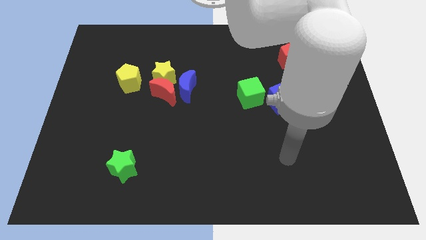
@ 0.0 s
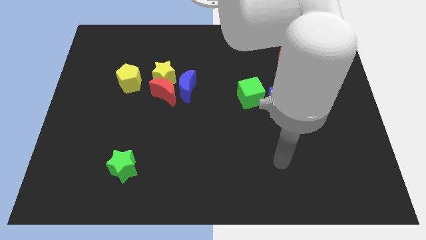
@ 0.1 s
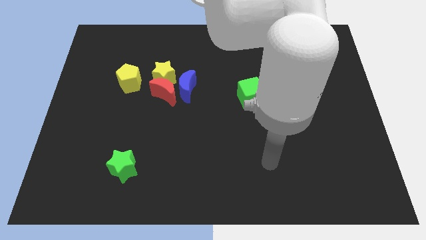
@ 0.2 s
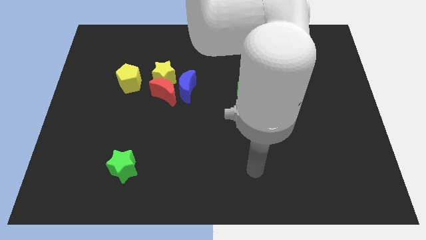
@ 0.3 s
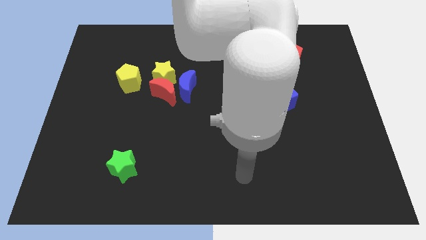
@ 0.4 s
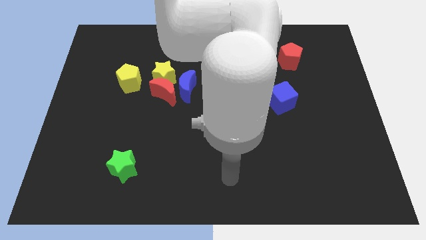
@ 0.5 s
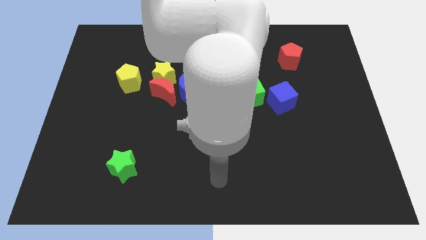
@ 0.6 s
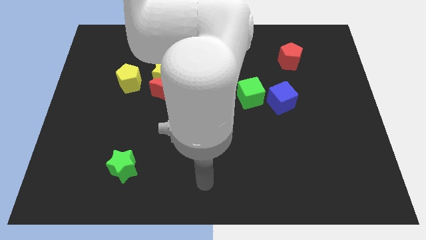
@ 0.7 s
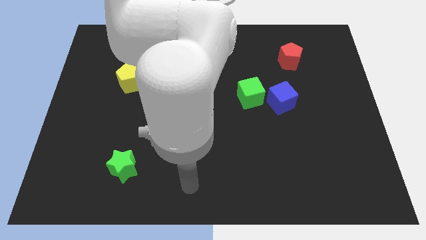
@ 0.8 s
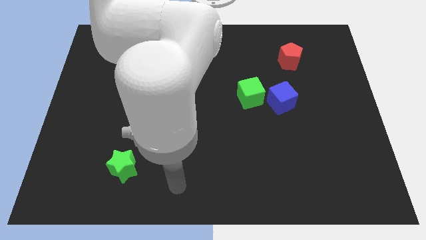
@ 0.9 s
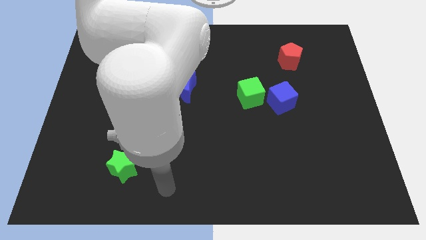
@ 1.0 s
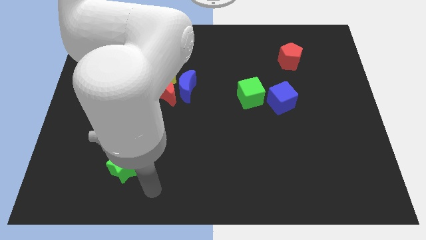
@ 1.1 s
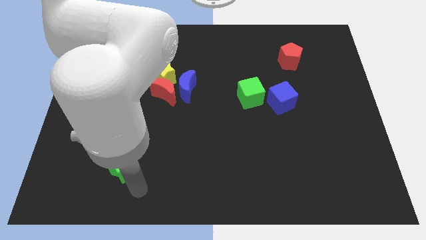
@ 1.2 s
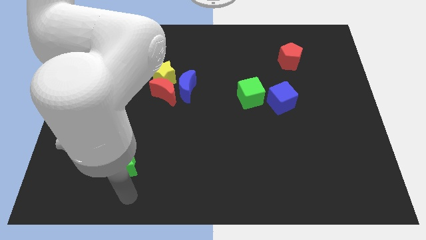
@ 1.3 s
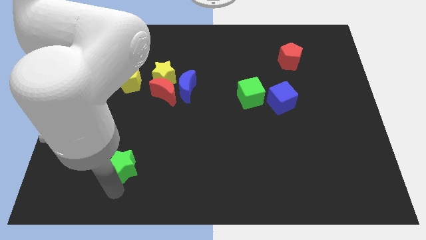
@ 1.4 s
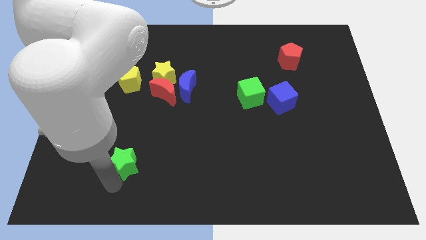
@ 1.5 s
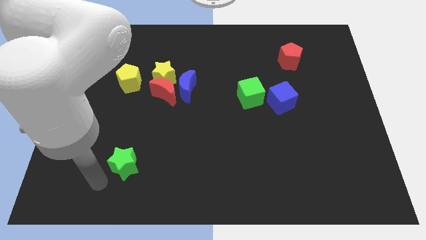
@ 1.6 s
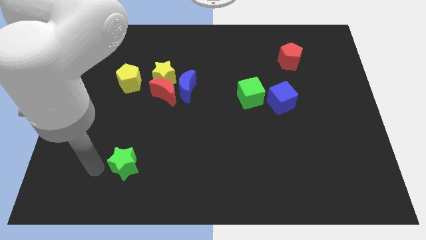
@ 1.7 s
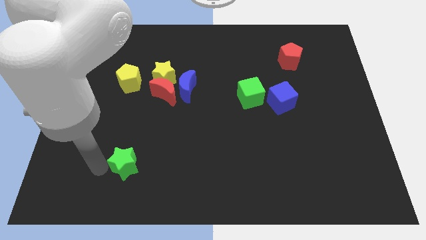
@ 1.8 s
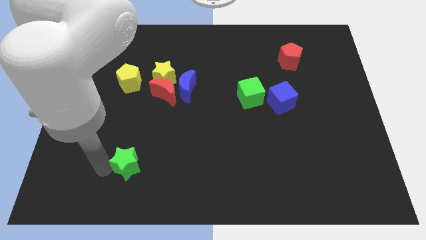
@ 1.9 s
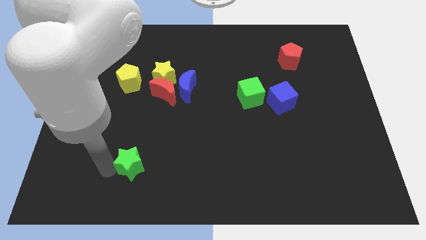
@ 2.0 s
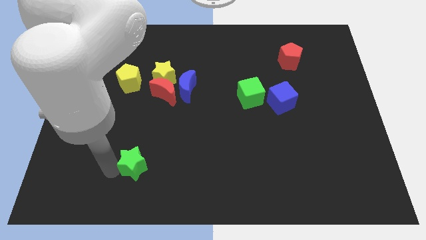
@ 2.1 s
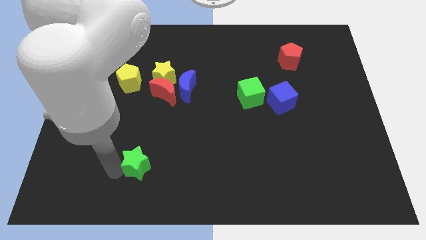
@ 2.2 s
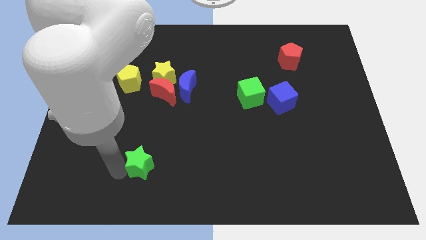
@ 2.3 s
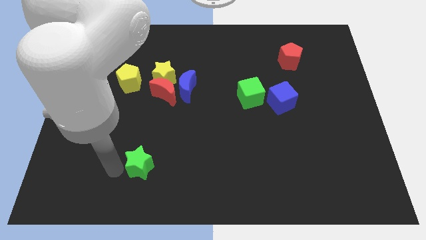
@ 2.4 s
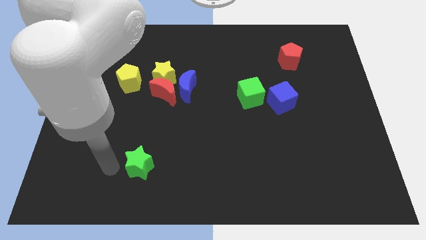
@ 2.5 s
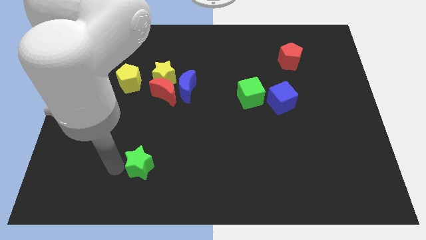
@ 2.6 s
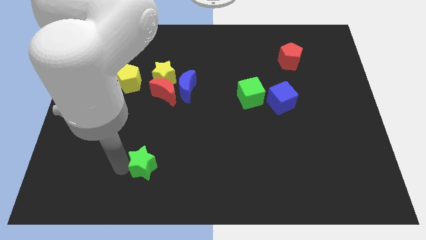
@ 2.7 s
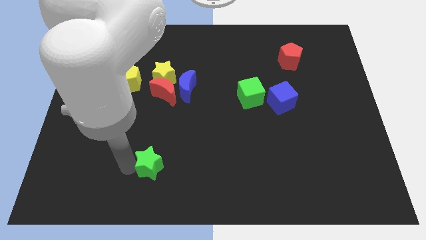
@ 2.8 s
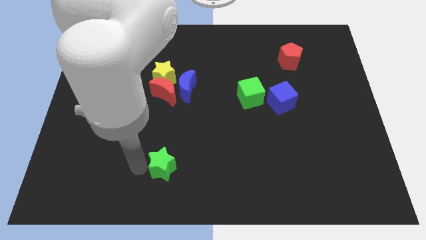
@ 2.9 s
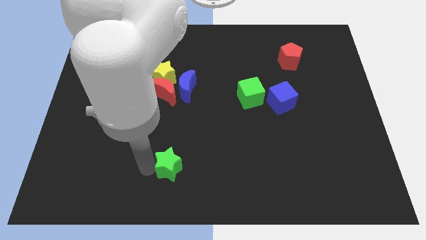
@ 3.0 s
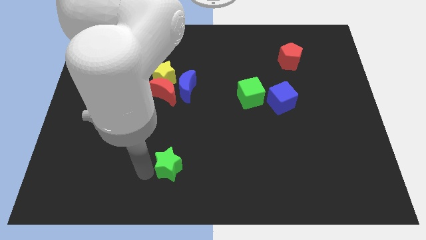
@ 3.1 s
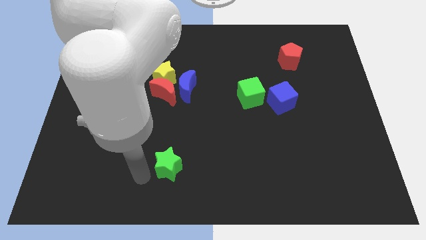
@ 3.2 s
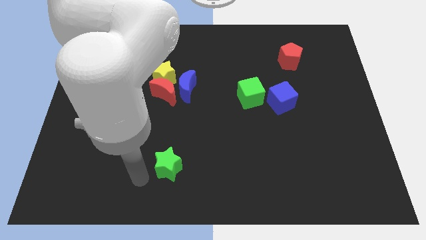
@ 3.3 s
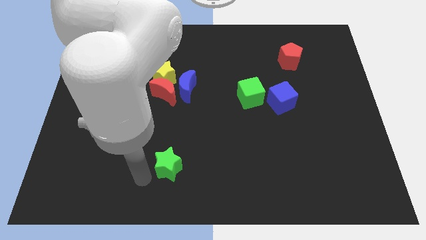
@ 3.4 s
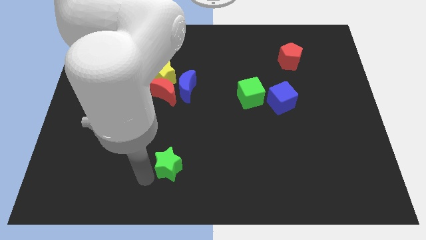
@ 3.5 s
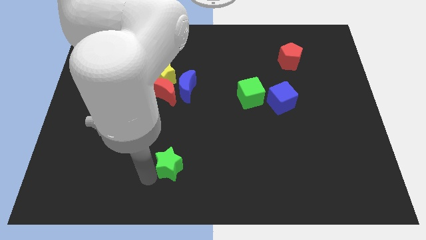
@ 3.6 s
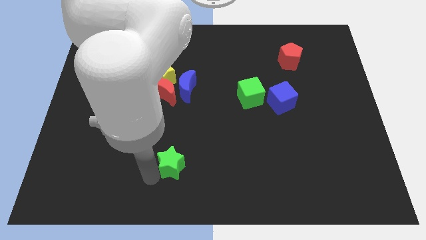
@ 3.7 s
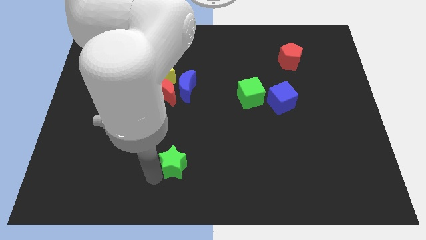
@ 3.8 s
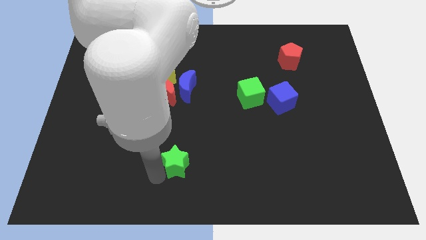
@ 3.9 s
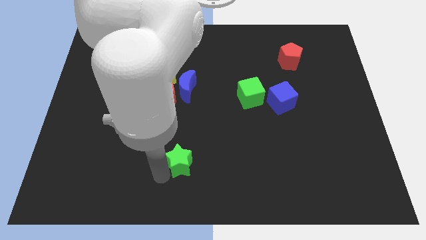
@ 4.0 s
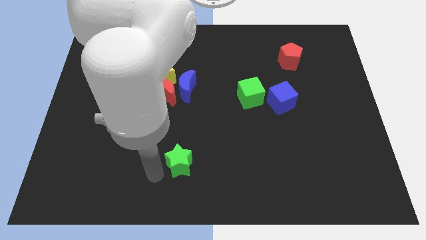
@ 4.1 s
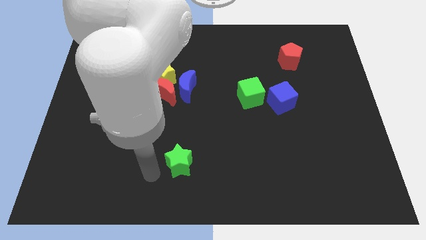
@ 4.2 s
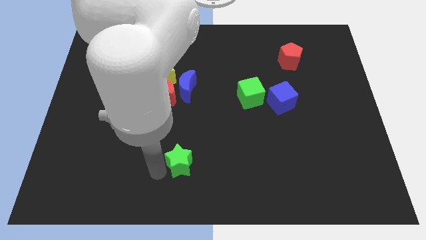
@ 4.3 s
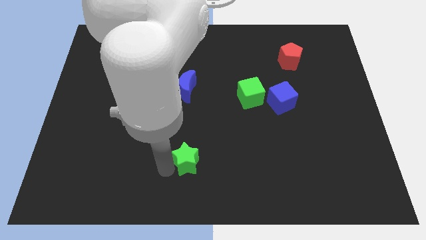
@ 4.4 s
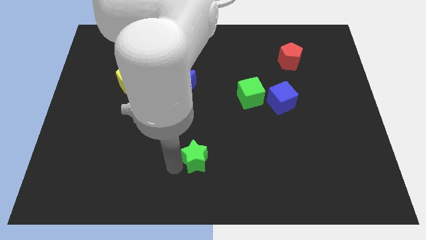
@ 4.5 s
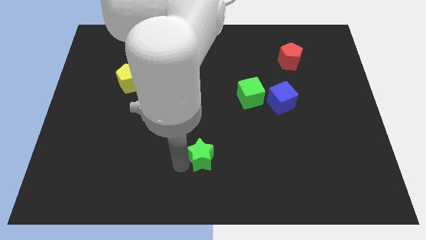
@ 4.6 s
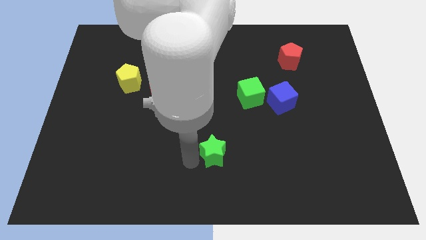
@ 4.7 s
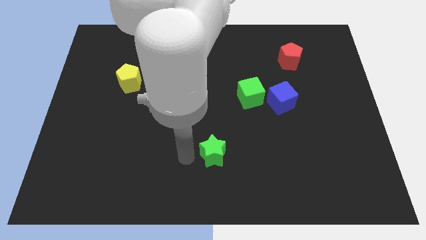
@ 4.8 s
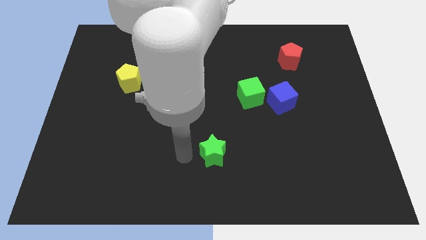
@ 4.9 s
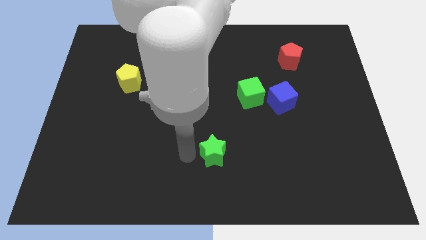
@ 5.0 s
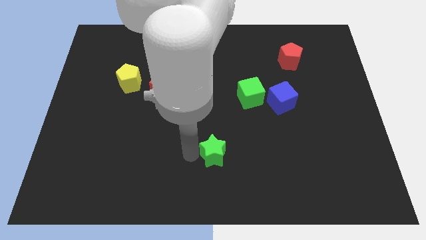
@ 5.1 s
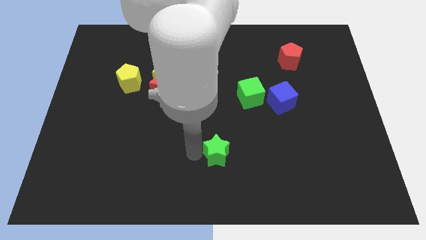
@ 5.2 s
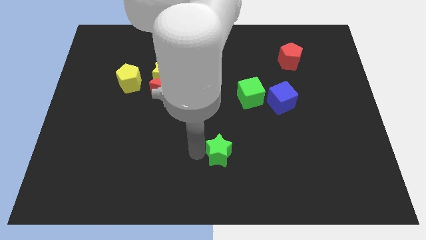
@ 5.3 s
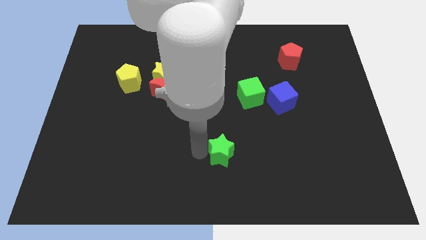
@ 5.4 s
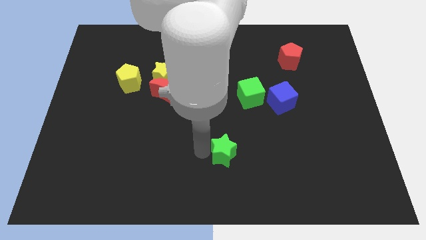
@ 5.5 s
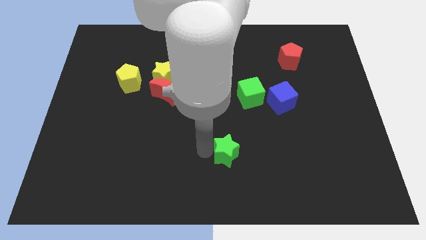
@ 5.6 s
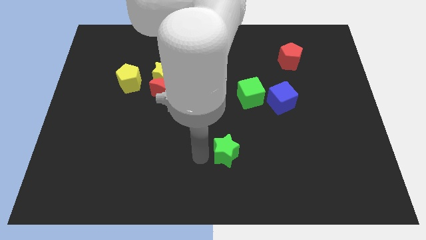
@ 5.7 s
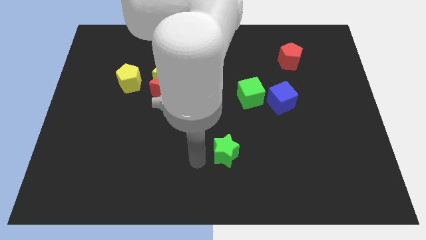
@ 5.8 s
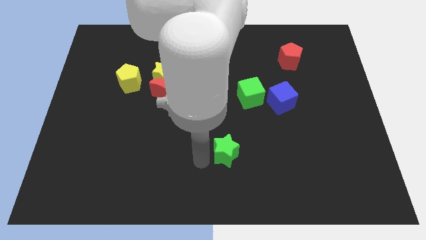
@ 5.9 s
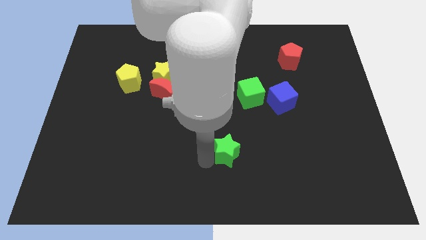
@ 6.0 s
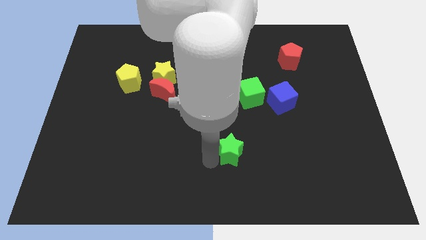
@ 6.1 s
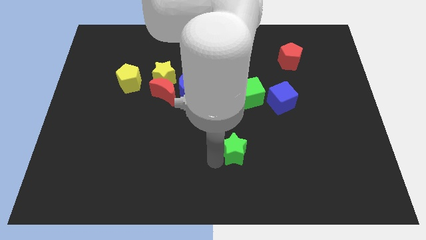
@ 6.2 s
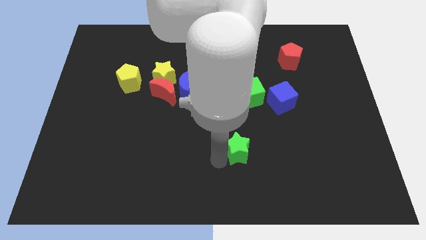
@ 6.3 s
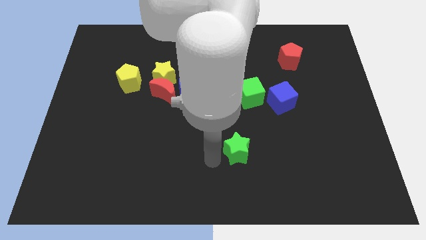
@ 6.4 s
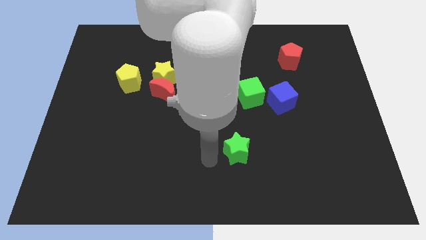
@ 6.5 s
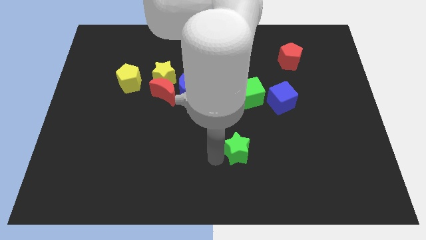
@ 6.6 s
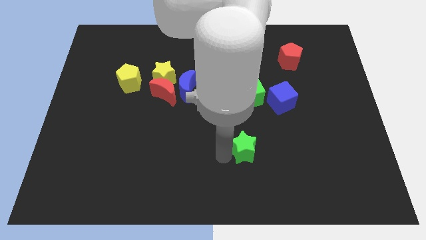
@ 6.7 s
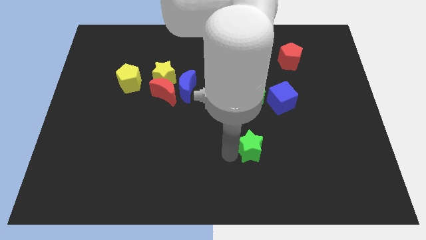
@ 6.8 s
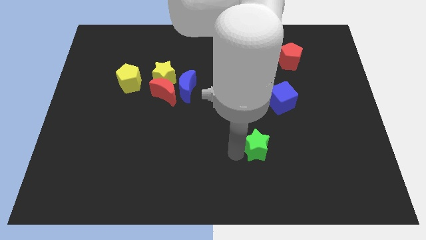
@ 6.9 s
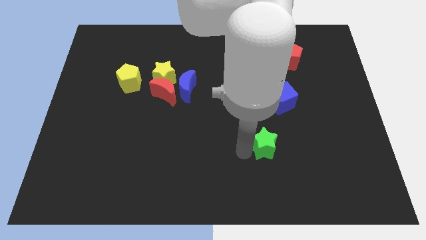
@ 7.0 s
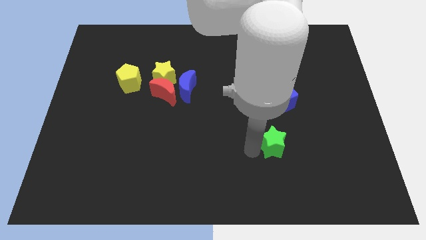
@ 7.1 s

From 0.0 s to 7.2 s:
slide the green star to the bottom of the blue cube

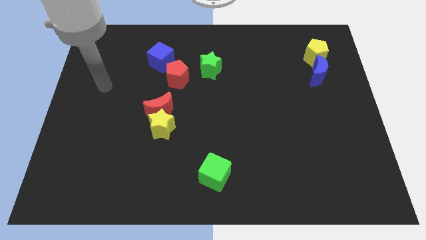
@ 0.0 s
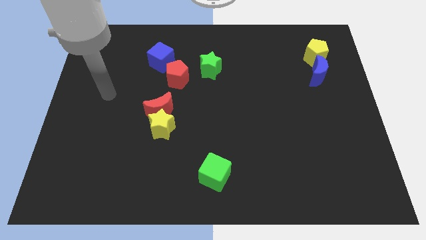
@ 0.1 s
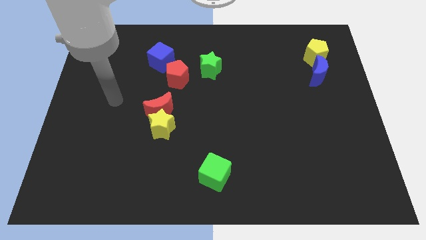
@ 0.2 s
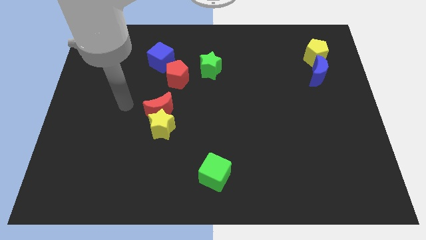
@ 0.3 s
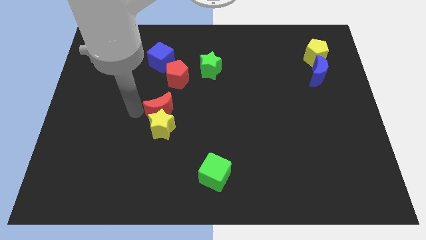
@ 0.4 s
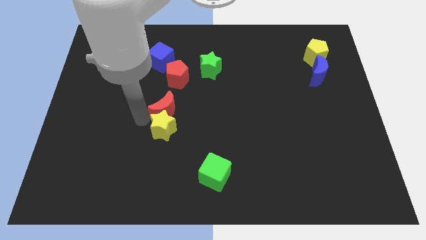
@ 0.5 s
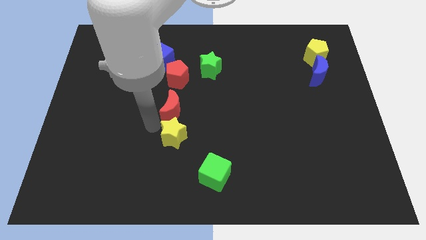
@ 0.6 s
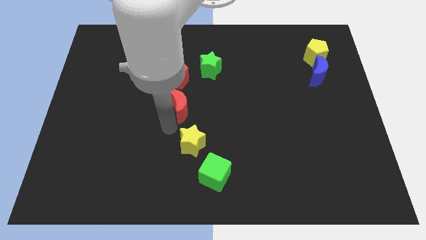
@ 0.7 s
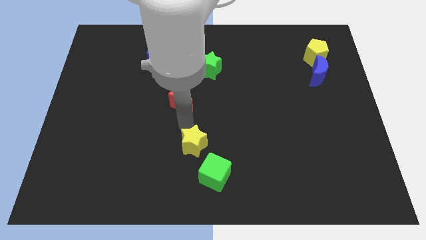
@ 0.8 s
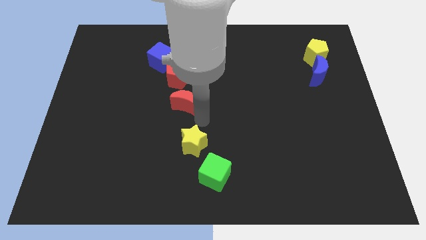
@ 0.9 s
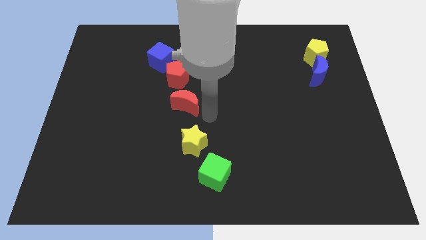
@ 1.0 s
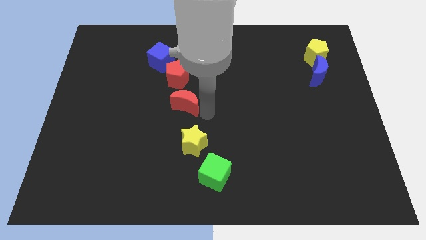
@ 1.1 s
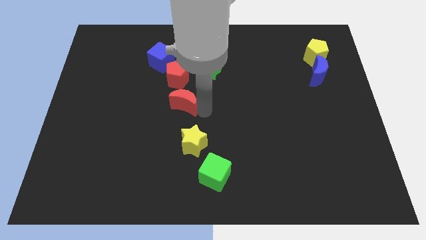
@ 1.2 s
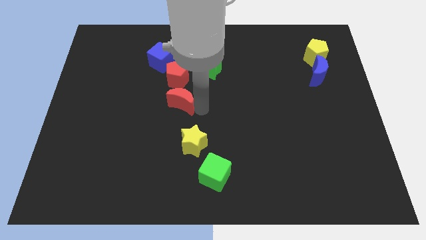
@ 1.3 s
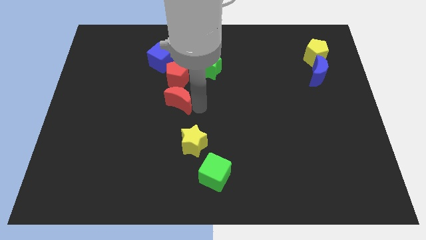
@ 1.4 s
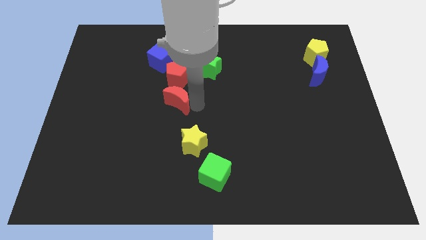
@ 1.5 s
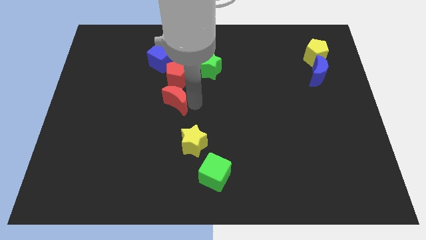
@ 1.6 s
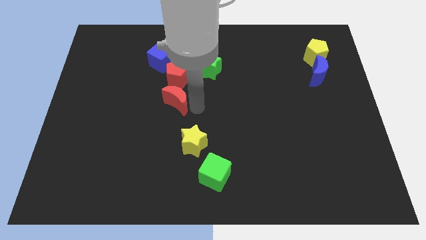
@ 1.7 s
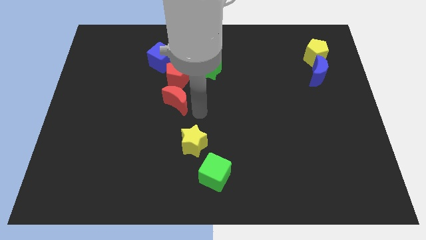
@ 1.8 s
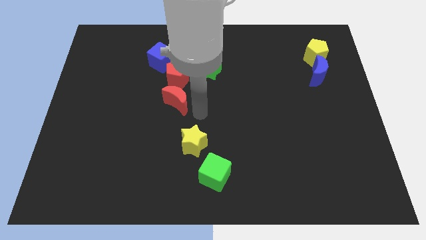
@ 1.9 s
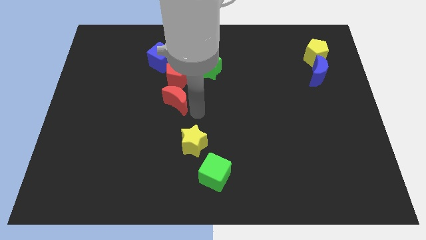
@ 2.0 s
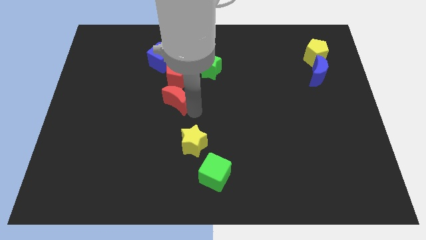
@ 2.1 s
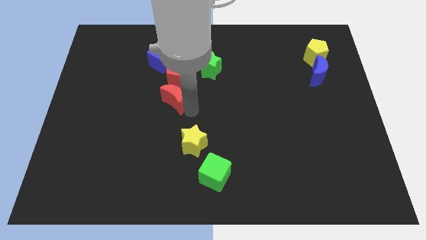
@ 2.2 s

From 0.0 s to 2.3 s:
put the red moon to the bottom of the blue cube
